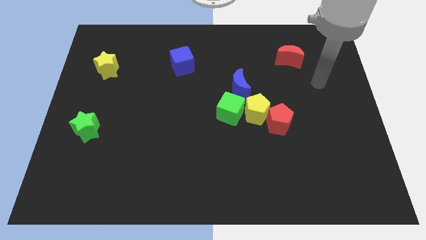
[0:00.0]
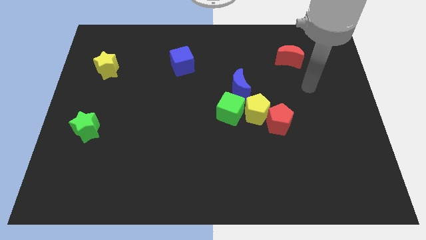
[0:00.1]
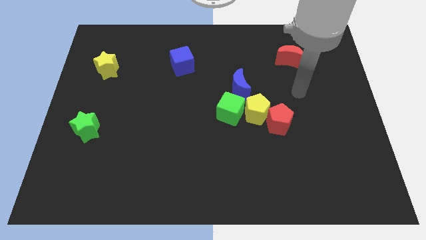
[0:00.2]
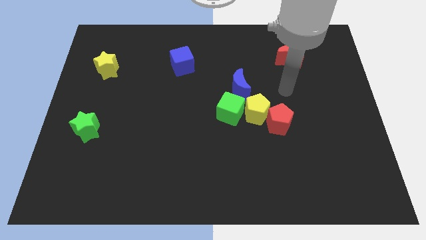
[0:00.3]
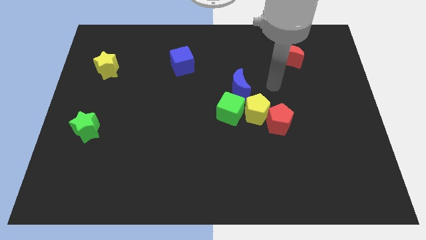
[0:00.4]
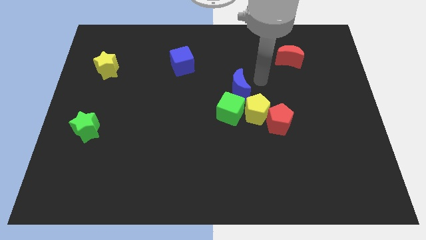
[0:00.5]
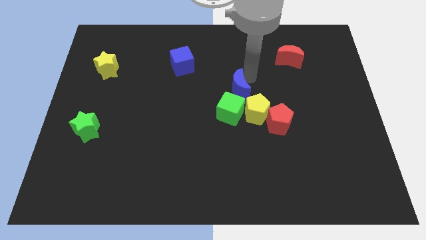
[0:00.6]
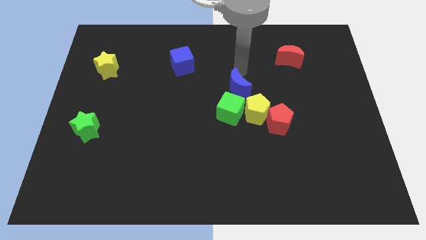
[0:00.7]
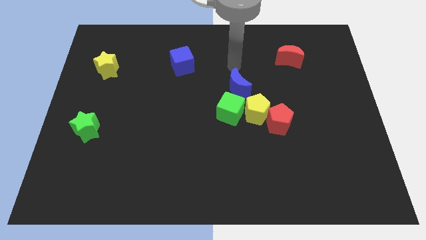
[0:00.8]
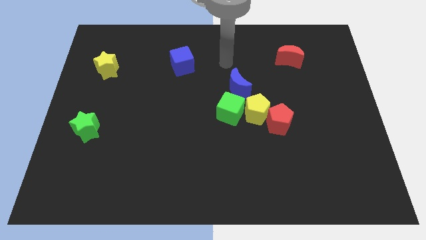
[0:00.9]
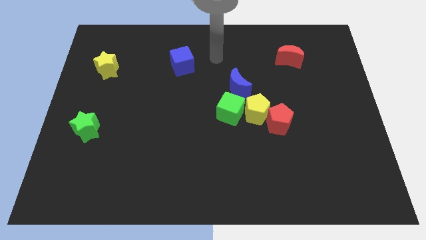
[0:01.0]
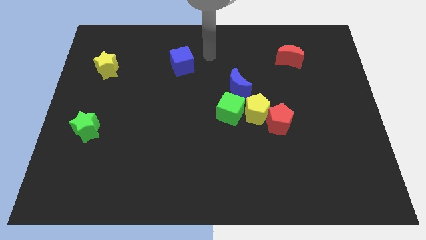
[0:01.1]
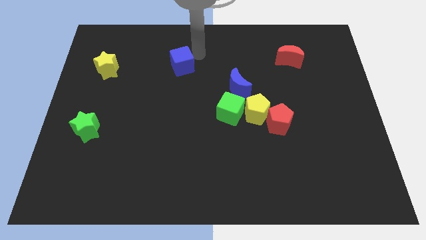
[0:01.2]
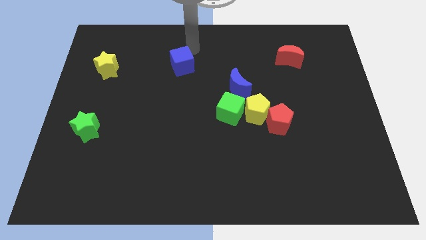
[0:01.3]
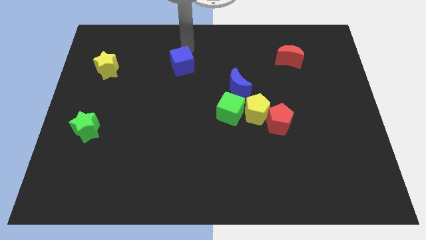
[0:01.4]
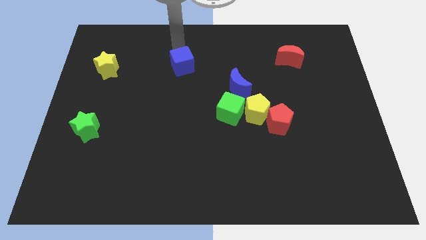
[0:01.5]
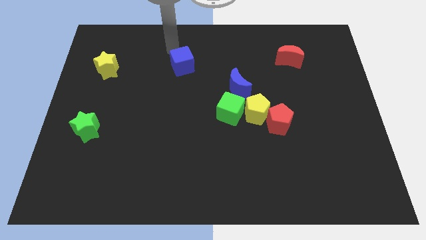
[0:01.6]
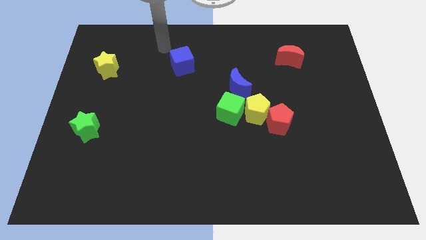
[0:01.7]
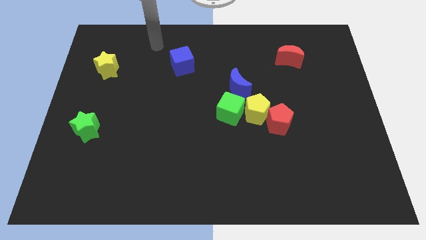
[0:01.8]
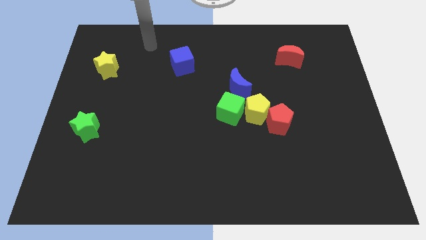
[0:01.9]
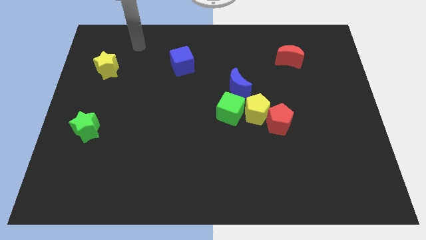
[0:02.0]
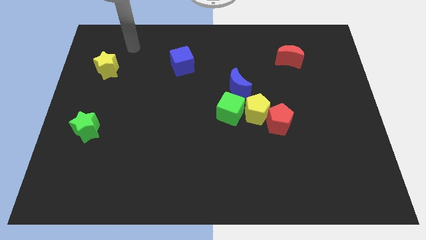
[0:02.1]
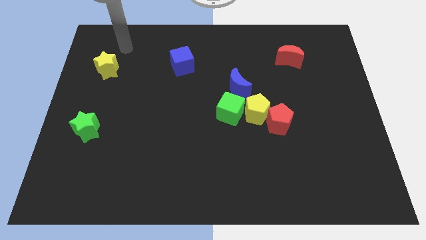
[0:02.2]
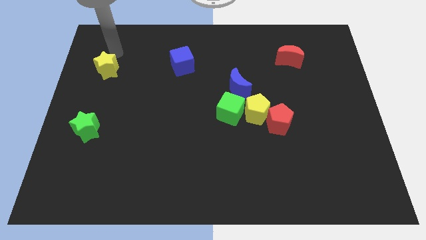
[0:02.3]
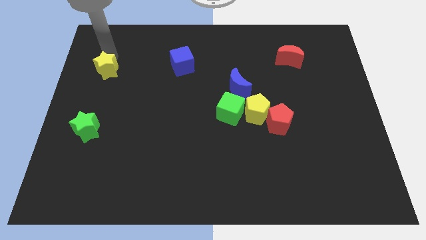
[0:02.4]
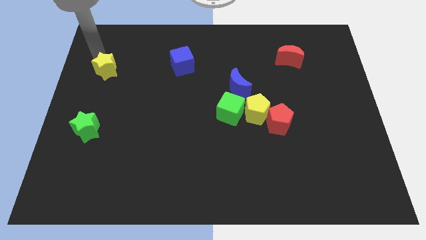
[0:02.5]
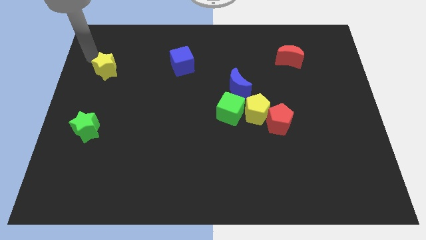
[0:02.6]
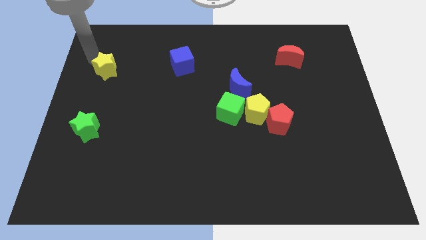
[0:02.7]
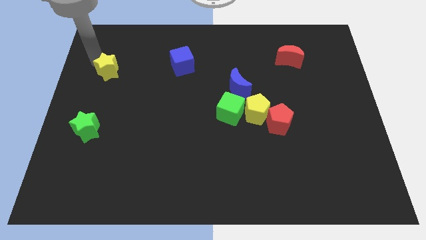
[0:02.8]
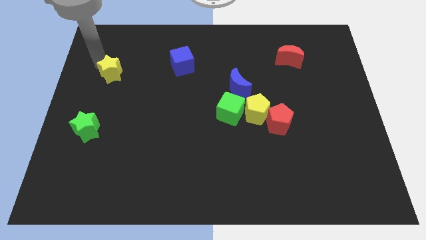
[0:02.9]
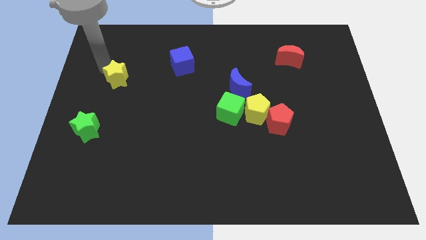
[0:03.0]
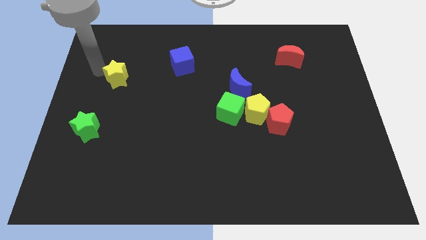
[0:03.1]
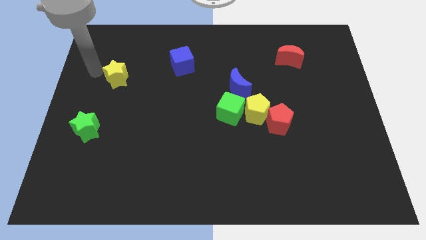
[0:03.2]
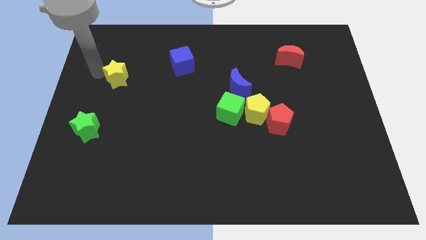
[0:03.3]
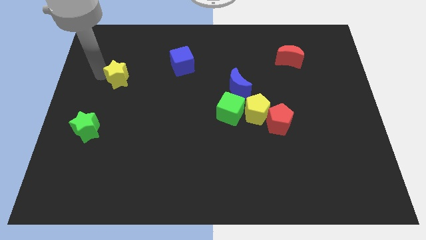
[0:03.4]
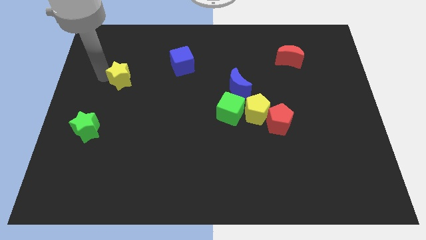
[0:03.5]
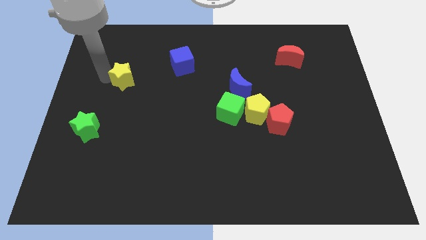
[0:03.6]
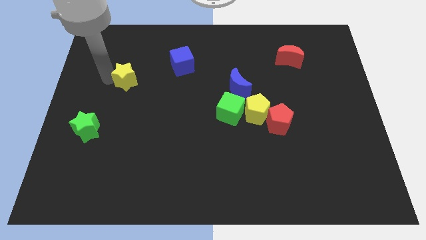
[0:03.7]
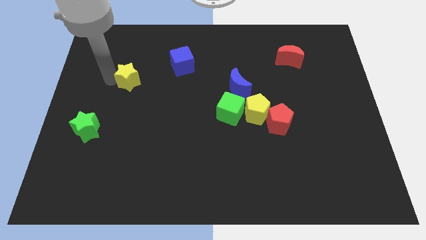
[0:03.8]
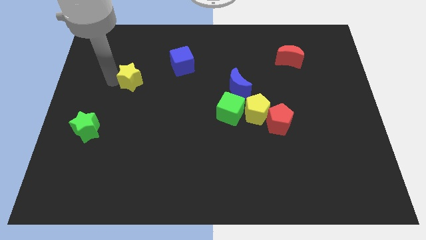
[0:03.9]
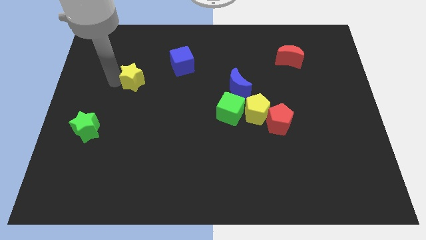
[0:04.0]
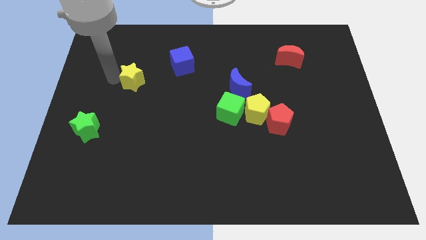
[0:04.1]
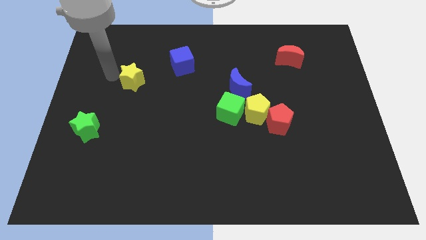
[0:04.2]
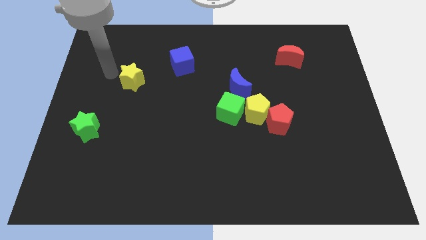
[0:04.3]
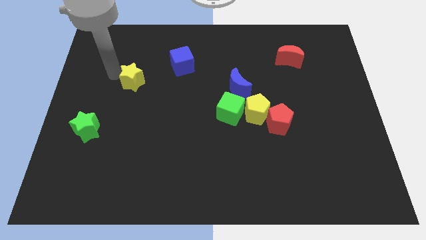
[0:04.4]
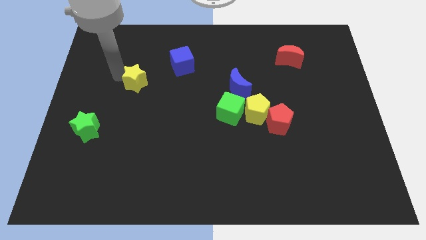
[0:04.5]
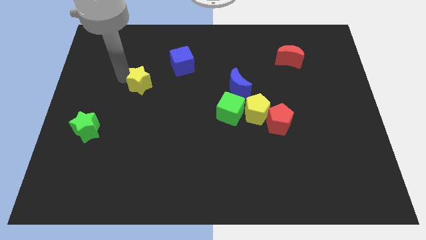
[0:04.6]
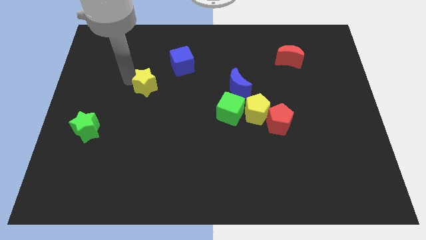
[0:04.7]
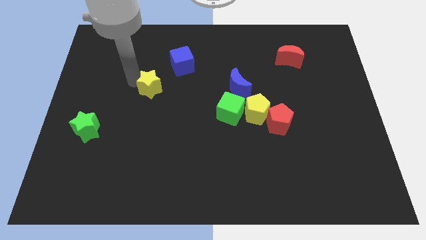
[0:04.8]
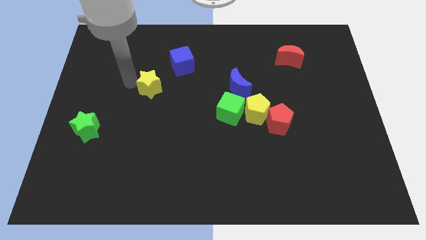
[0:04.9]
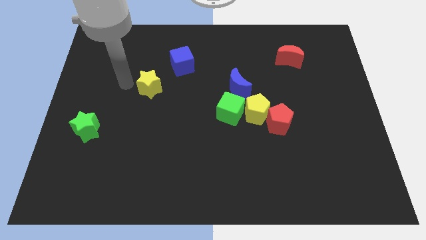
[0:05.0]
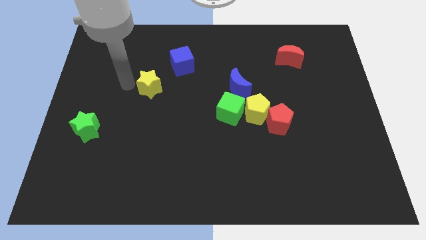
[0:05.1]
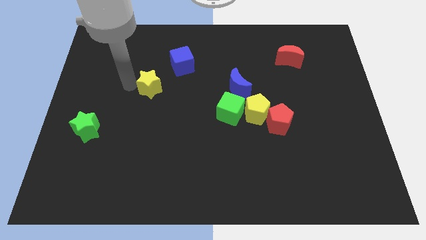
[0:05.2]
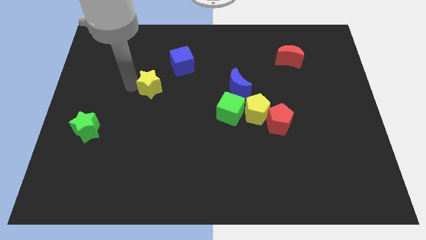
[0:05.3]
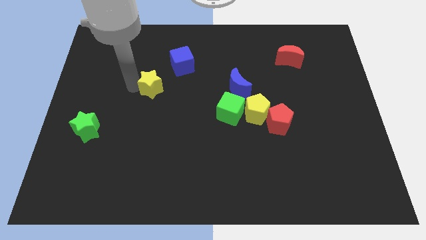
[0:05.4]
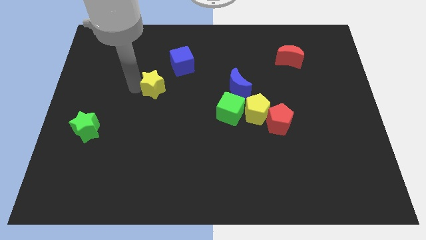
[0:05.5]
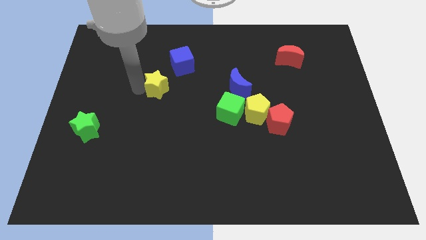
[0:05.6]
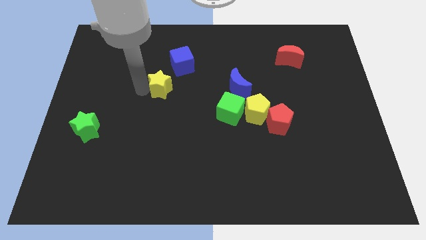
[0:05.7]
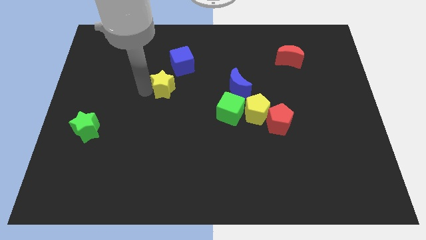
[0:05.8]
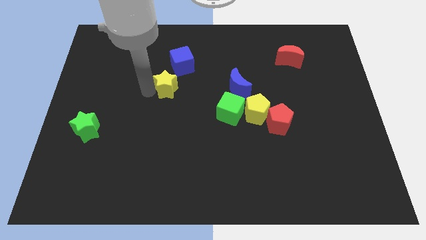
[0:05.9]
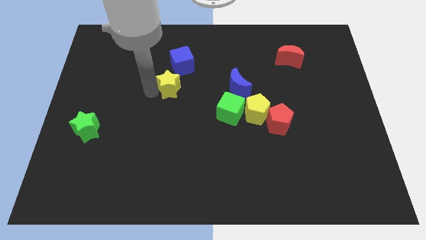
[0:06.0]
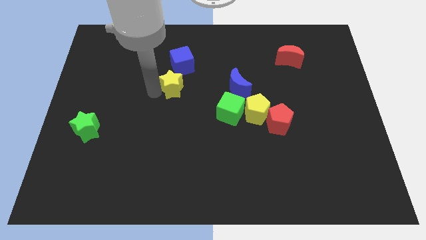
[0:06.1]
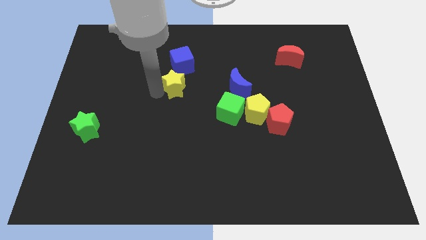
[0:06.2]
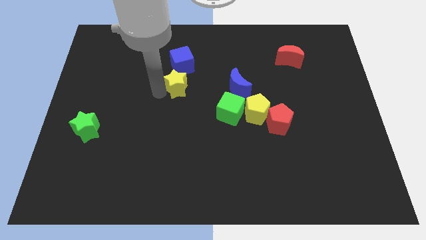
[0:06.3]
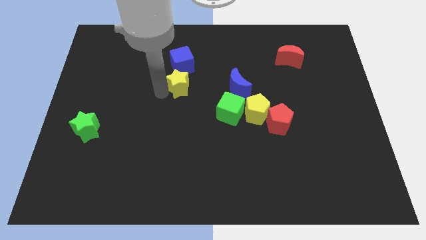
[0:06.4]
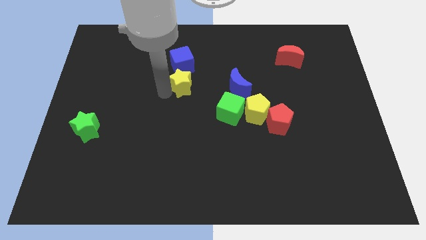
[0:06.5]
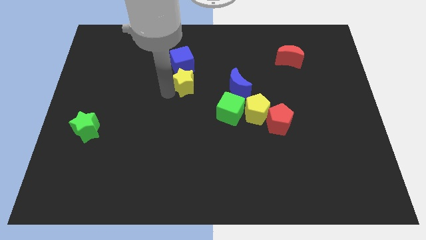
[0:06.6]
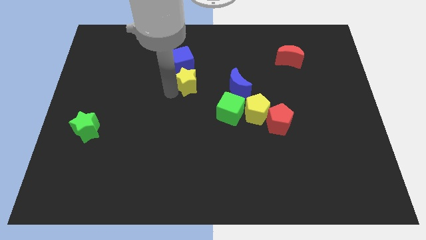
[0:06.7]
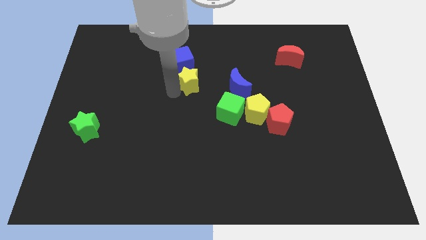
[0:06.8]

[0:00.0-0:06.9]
slide the yellow star right

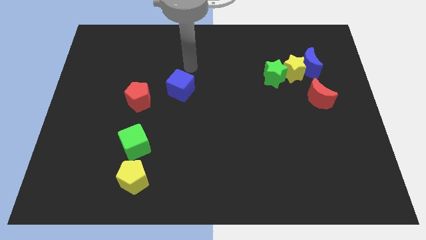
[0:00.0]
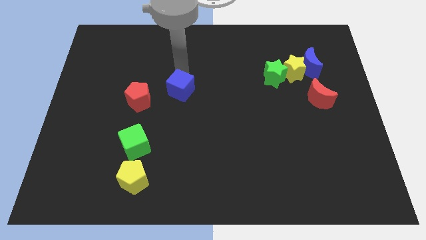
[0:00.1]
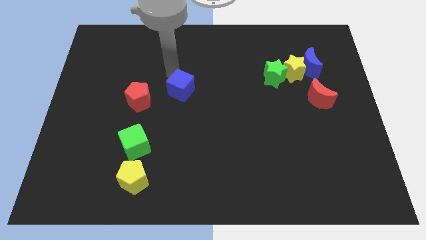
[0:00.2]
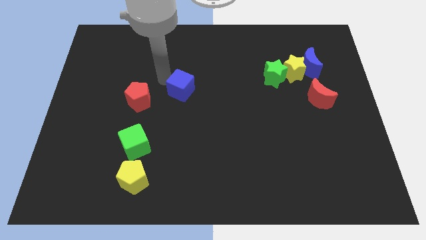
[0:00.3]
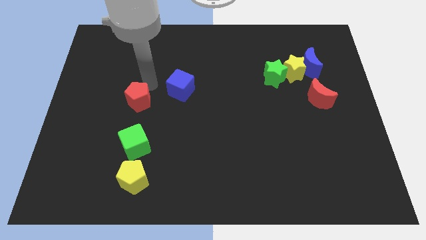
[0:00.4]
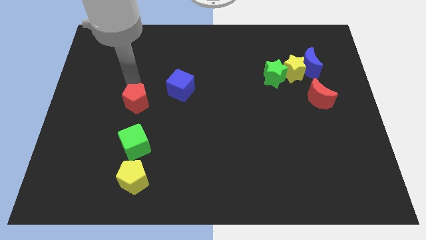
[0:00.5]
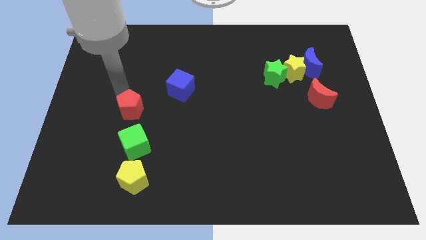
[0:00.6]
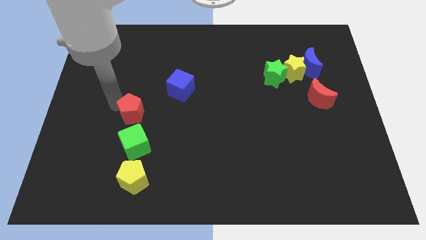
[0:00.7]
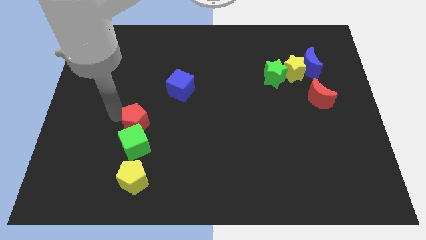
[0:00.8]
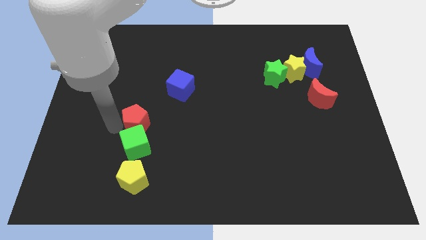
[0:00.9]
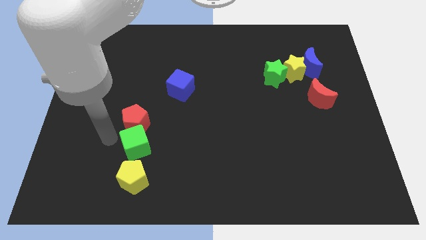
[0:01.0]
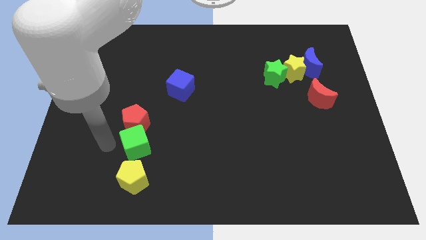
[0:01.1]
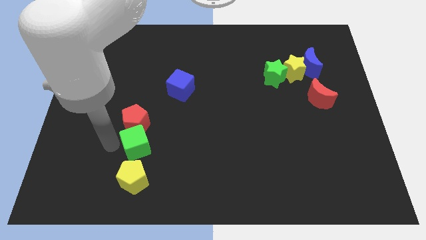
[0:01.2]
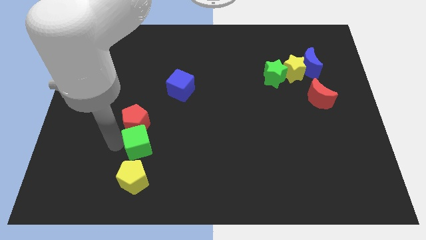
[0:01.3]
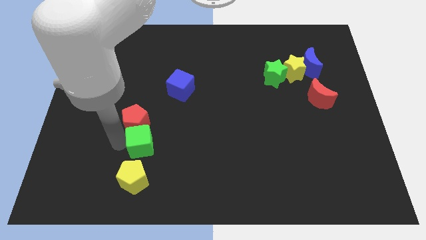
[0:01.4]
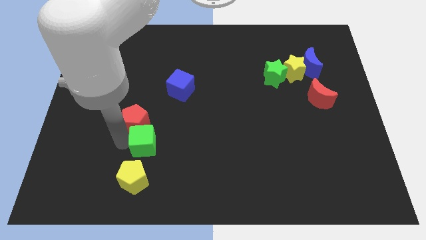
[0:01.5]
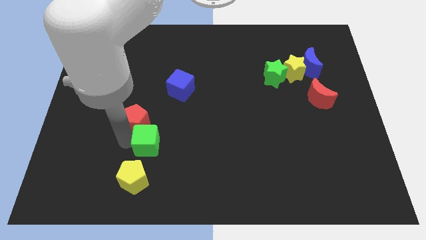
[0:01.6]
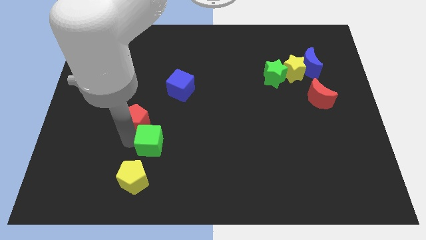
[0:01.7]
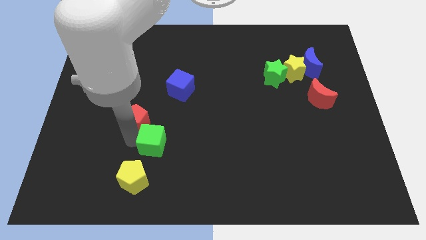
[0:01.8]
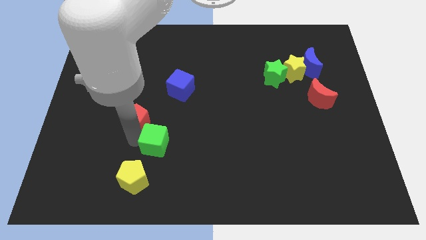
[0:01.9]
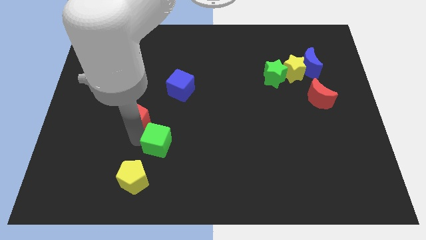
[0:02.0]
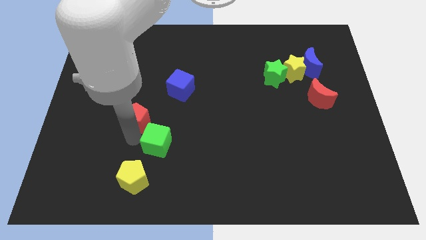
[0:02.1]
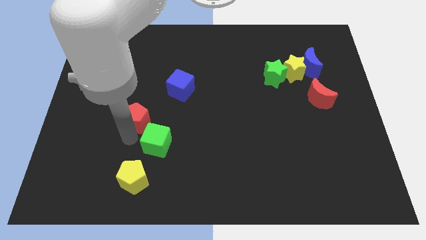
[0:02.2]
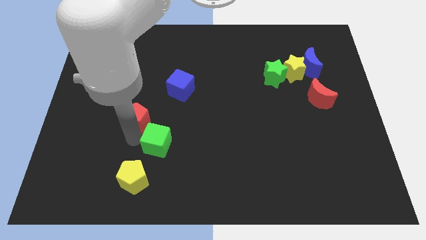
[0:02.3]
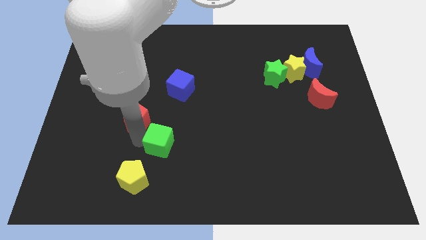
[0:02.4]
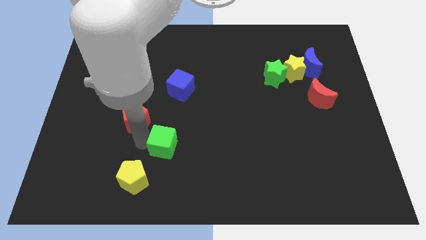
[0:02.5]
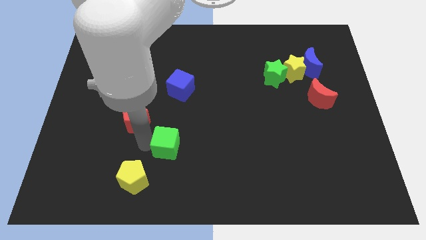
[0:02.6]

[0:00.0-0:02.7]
slide the green cube to the right a little
